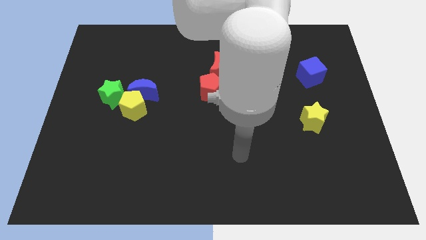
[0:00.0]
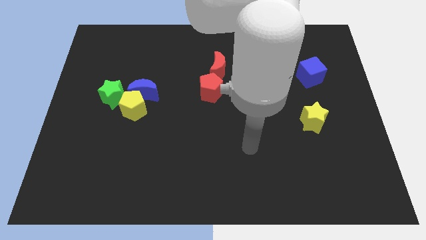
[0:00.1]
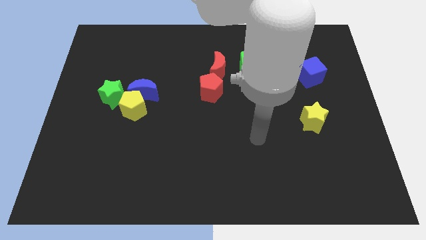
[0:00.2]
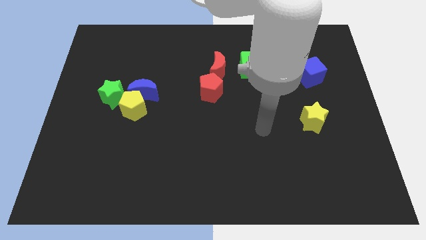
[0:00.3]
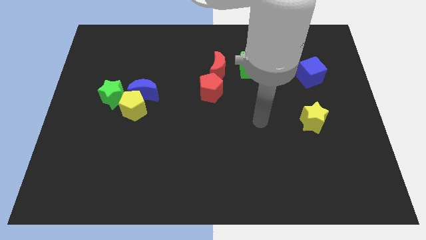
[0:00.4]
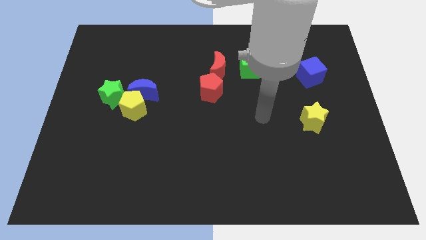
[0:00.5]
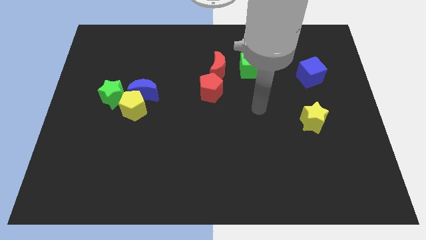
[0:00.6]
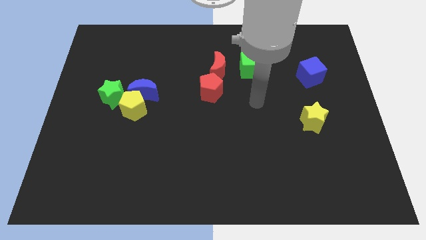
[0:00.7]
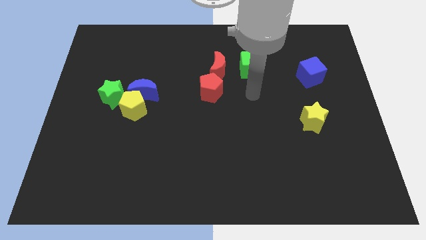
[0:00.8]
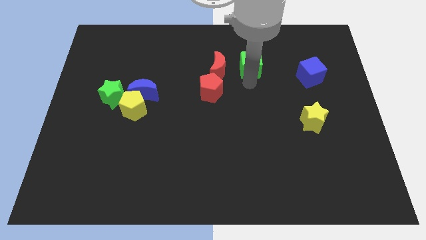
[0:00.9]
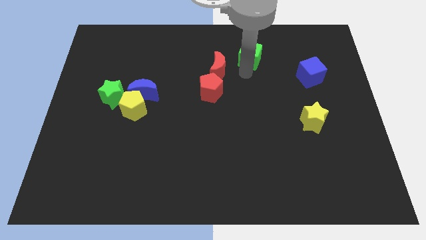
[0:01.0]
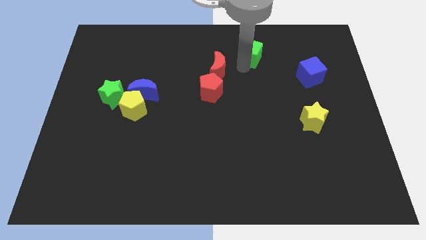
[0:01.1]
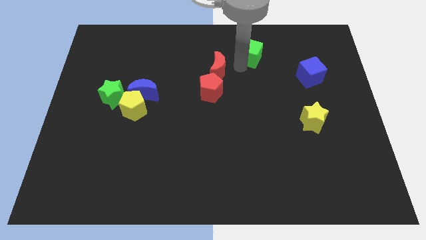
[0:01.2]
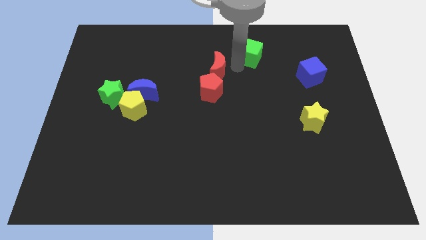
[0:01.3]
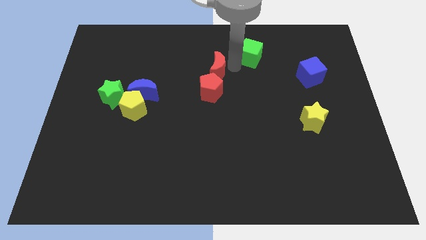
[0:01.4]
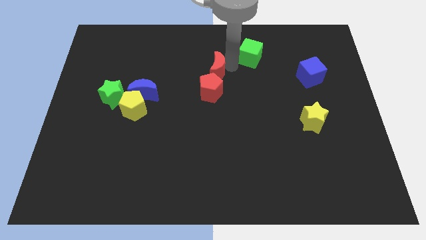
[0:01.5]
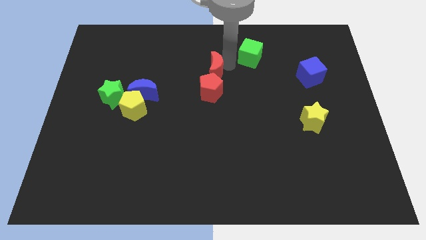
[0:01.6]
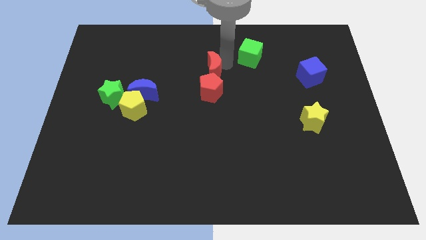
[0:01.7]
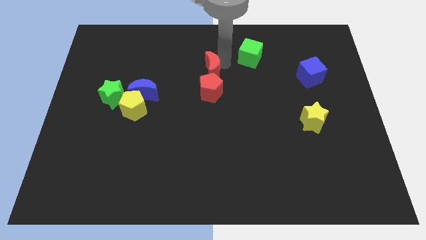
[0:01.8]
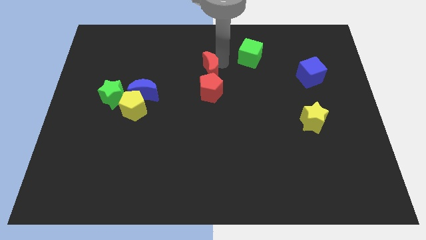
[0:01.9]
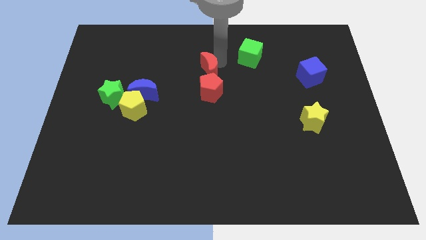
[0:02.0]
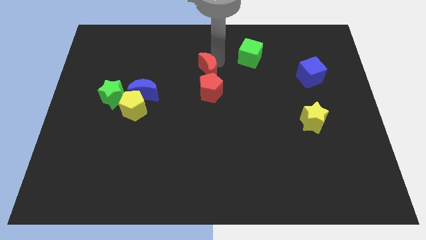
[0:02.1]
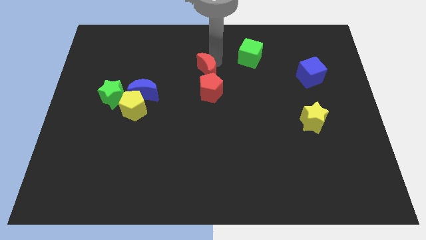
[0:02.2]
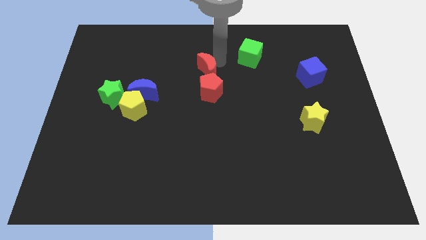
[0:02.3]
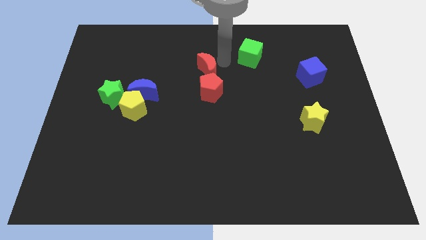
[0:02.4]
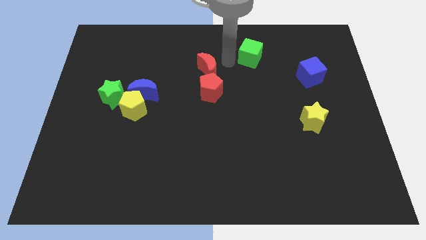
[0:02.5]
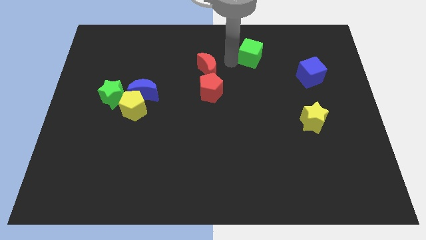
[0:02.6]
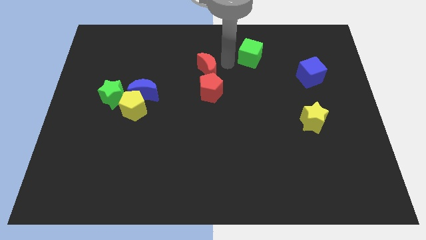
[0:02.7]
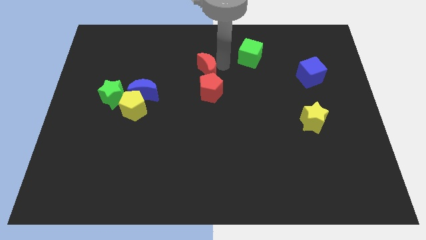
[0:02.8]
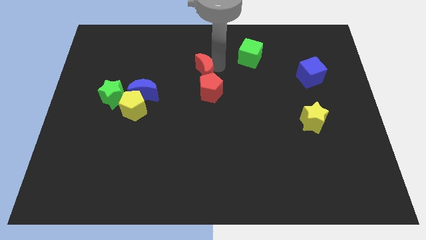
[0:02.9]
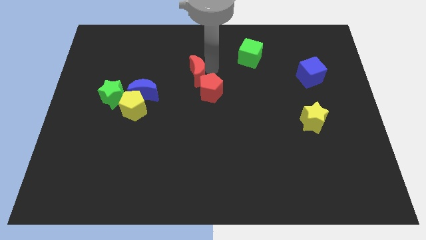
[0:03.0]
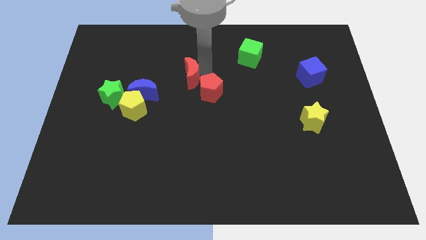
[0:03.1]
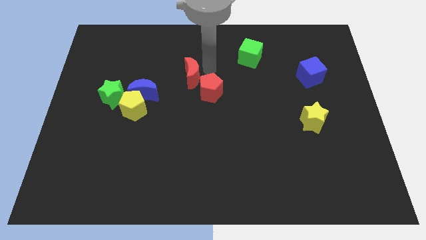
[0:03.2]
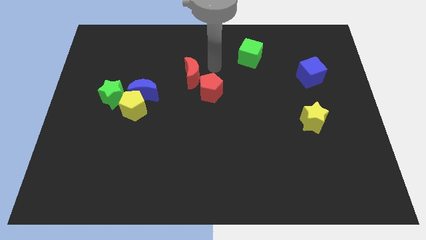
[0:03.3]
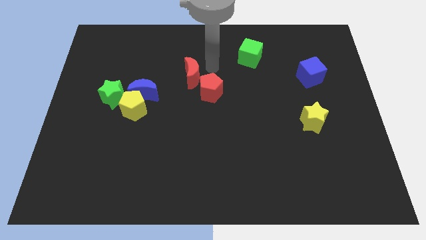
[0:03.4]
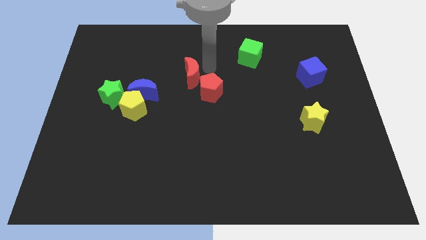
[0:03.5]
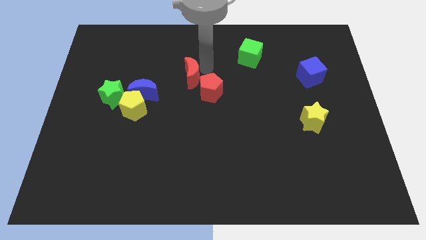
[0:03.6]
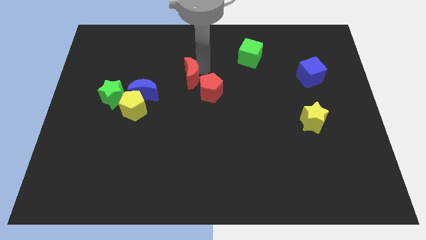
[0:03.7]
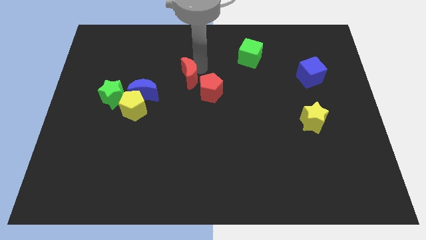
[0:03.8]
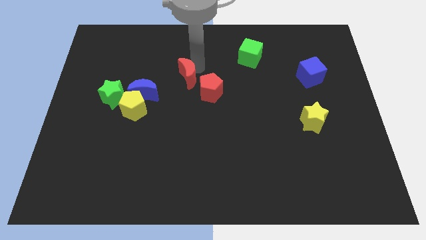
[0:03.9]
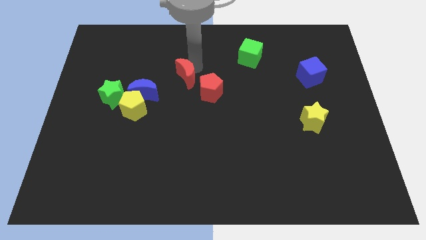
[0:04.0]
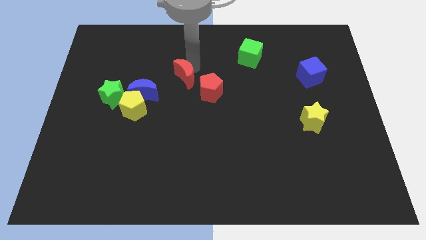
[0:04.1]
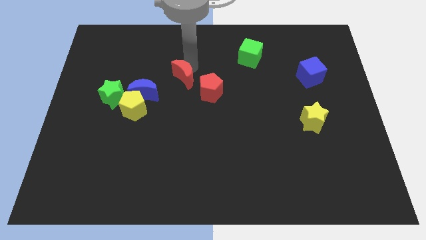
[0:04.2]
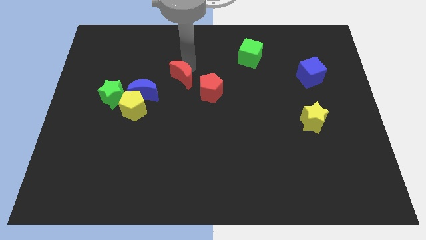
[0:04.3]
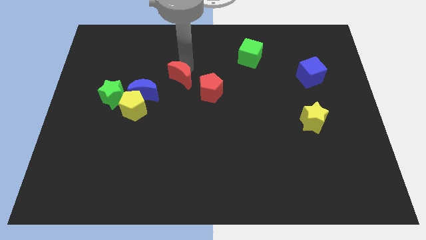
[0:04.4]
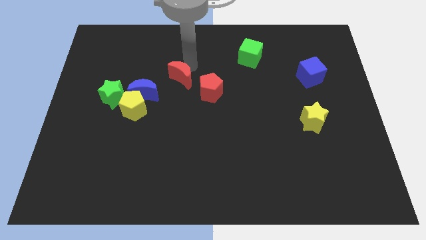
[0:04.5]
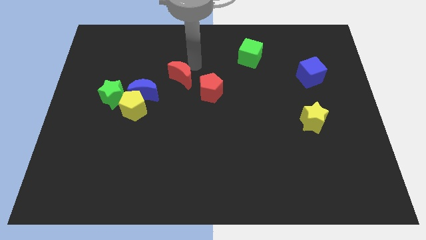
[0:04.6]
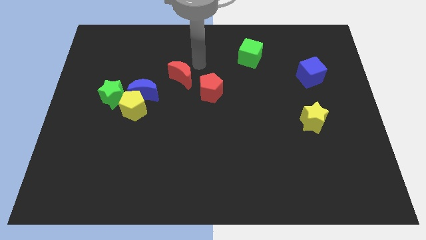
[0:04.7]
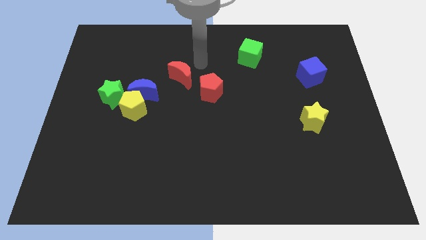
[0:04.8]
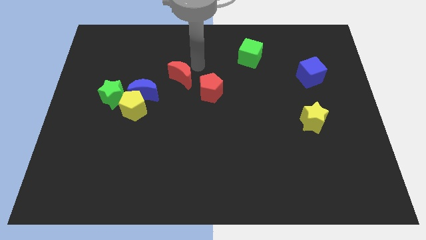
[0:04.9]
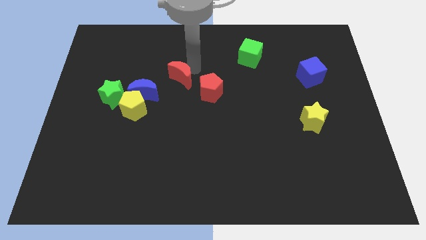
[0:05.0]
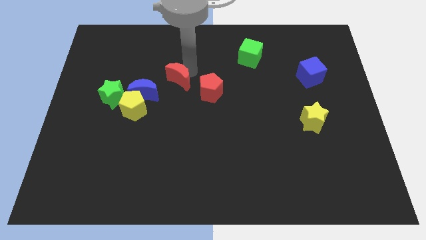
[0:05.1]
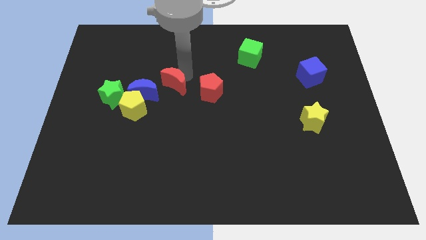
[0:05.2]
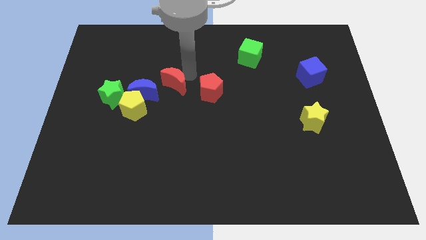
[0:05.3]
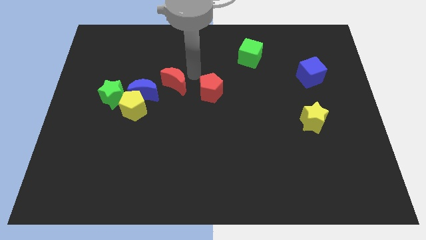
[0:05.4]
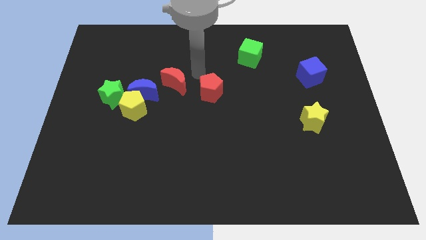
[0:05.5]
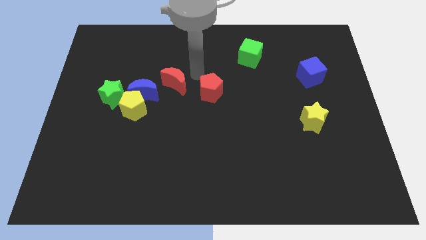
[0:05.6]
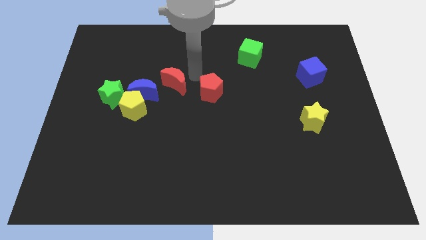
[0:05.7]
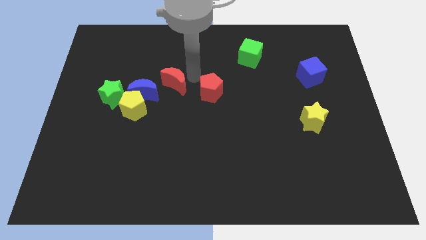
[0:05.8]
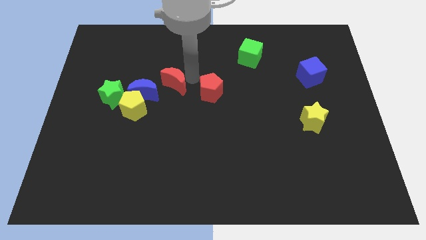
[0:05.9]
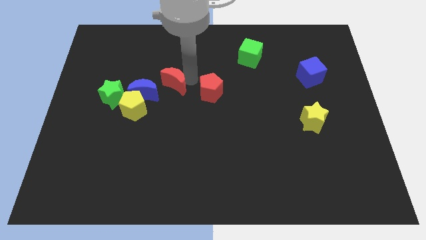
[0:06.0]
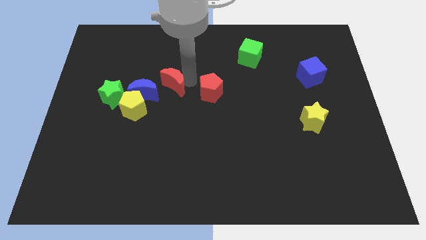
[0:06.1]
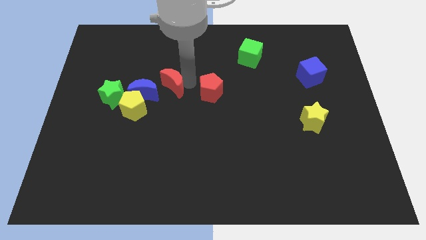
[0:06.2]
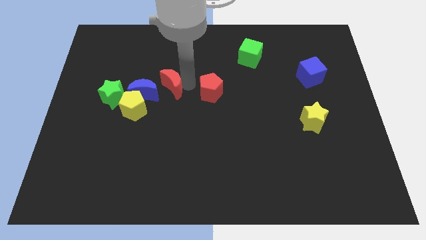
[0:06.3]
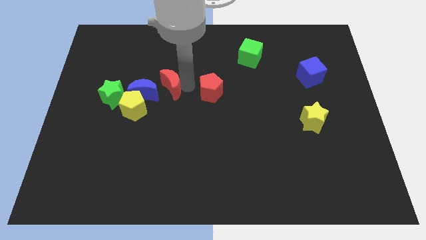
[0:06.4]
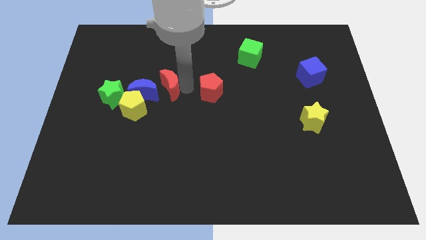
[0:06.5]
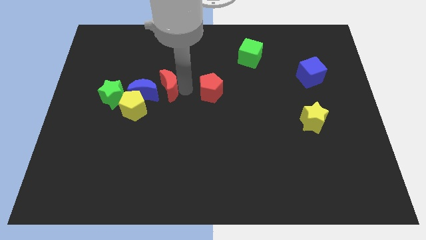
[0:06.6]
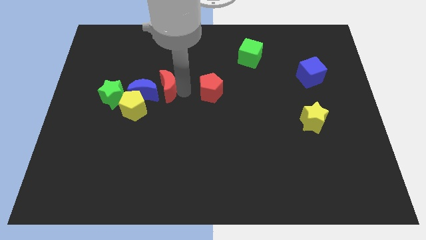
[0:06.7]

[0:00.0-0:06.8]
push the red moon to the blue moon

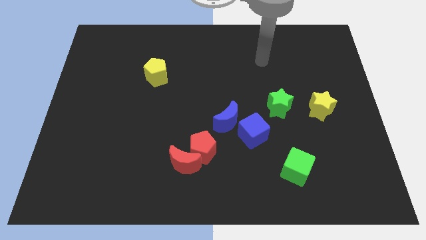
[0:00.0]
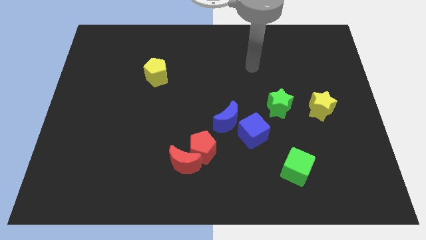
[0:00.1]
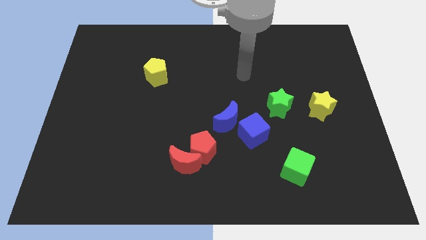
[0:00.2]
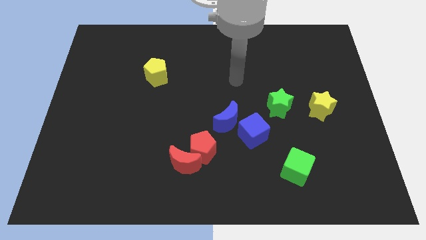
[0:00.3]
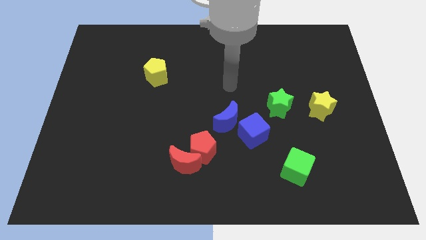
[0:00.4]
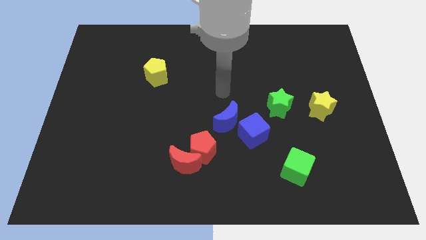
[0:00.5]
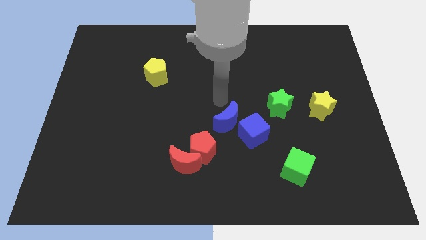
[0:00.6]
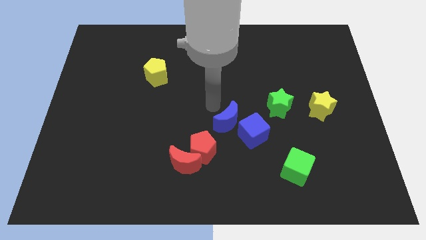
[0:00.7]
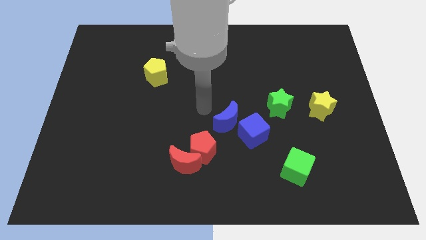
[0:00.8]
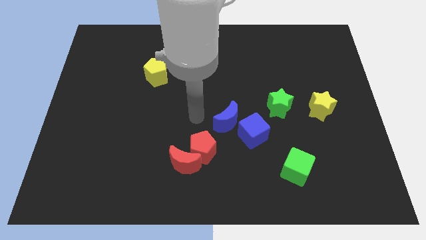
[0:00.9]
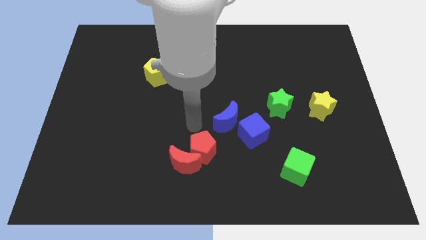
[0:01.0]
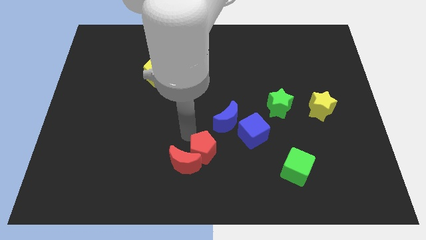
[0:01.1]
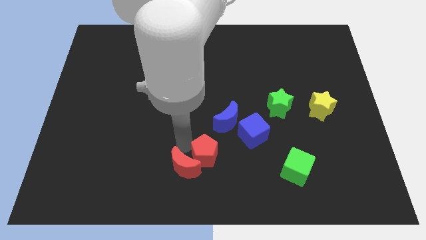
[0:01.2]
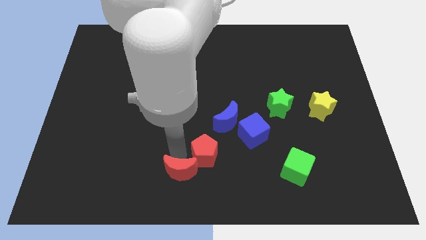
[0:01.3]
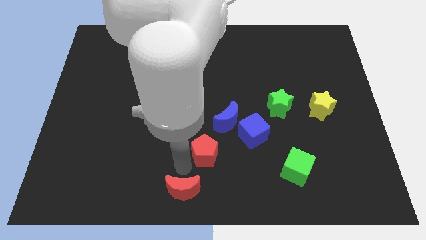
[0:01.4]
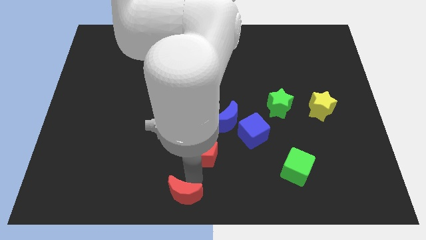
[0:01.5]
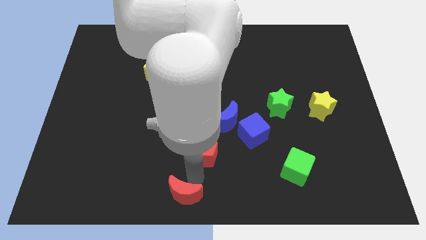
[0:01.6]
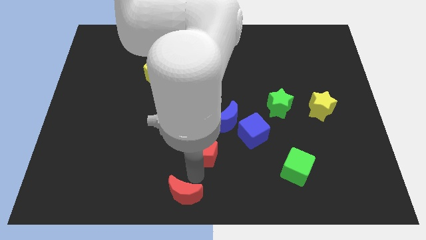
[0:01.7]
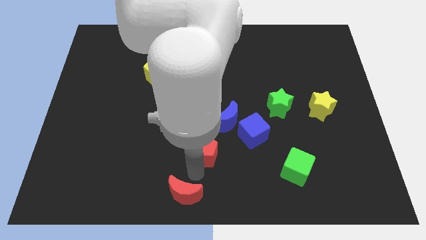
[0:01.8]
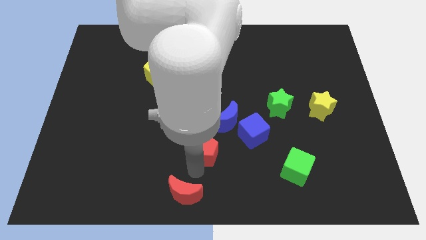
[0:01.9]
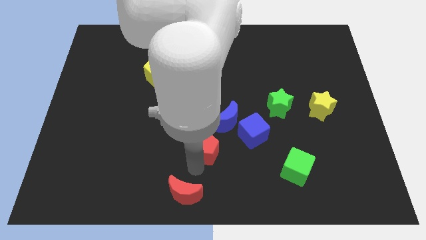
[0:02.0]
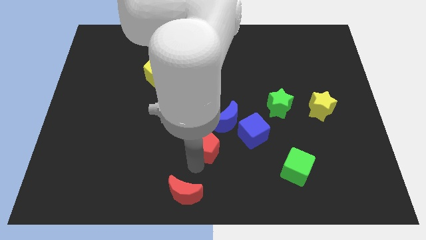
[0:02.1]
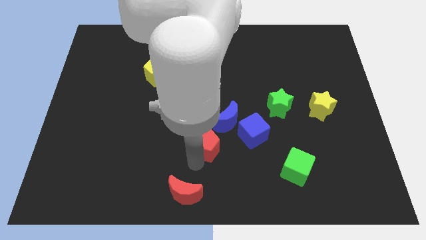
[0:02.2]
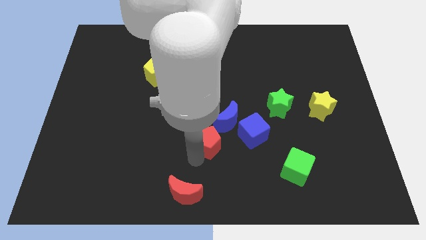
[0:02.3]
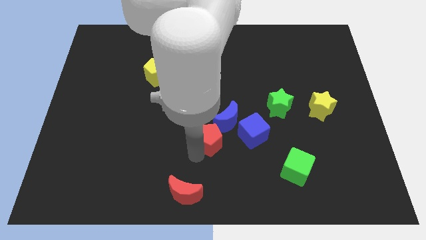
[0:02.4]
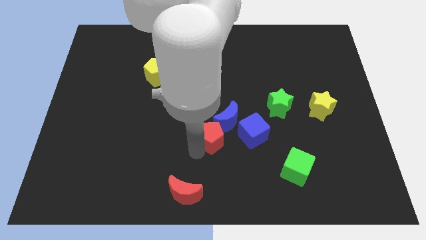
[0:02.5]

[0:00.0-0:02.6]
put the red pentagon next to the blue moon
